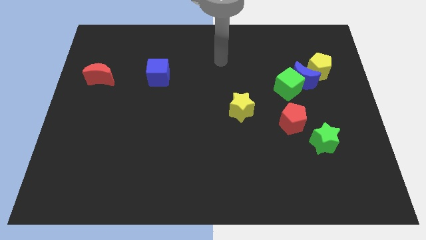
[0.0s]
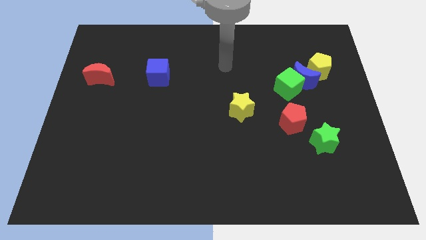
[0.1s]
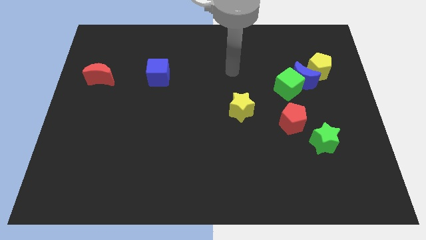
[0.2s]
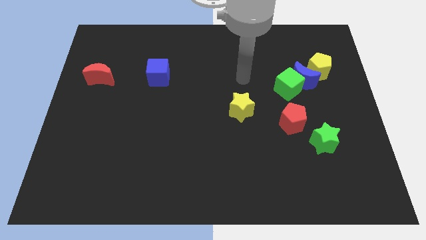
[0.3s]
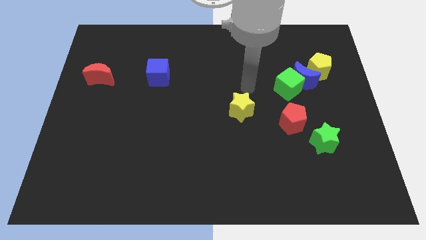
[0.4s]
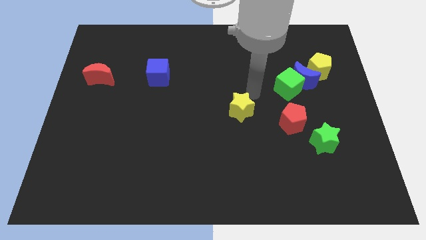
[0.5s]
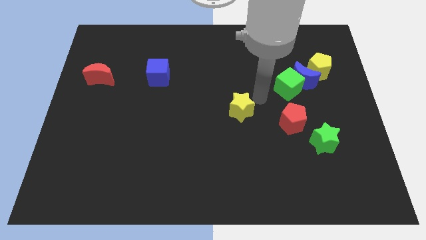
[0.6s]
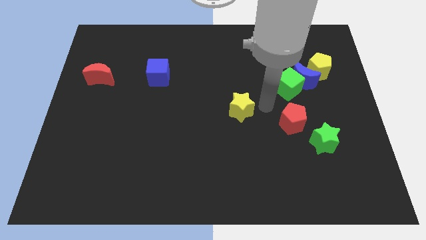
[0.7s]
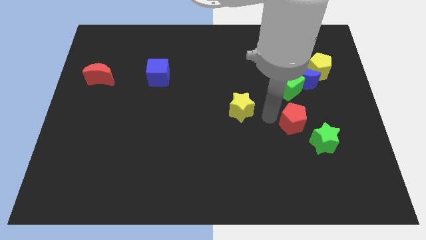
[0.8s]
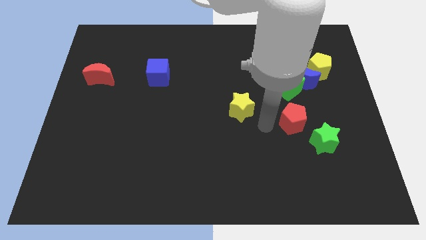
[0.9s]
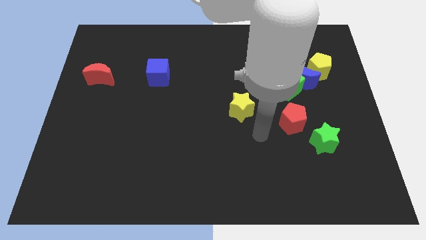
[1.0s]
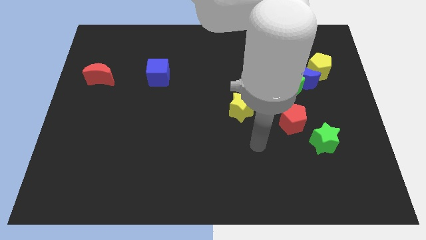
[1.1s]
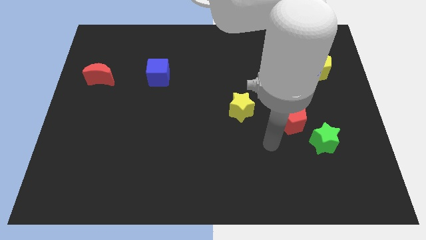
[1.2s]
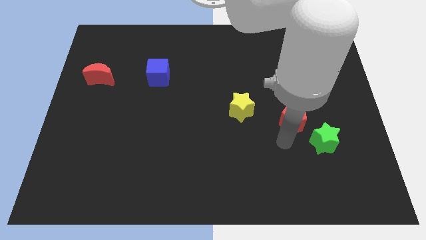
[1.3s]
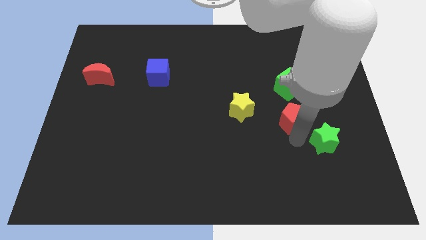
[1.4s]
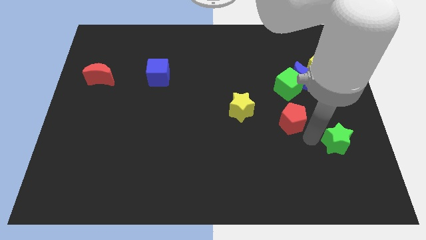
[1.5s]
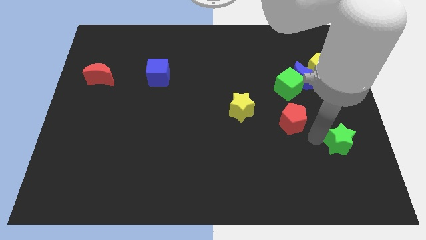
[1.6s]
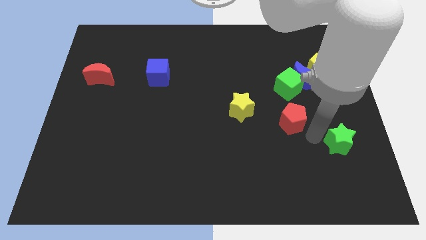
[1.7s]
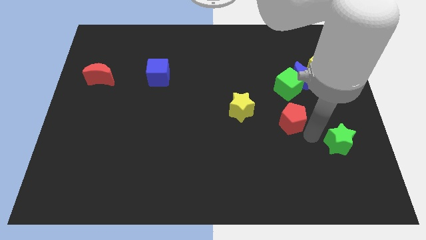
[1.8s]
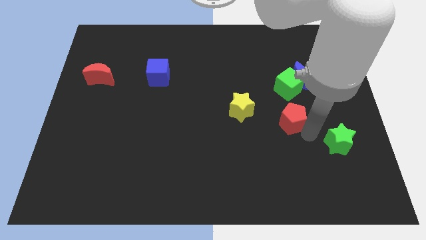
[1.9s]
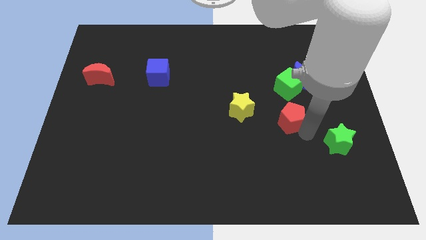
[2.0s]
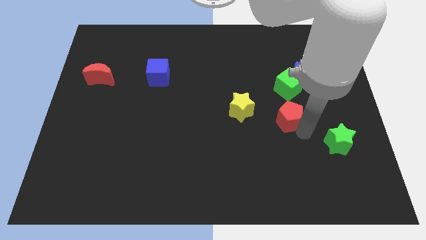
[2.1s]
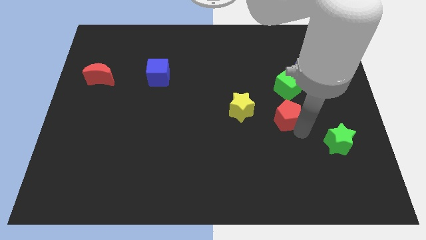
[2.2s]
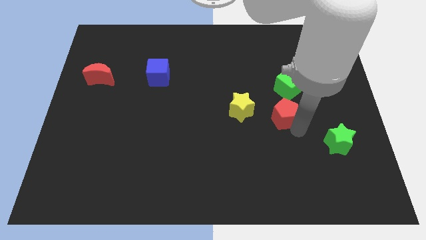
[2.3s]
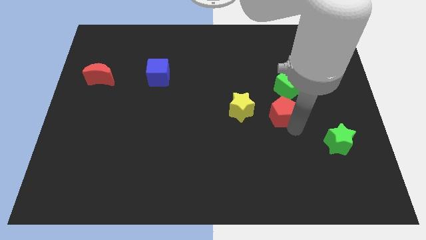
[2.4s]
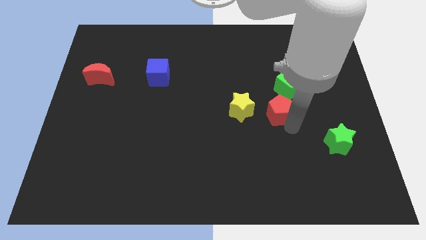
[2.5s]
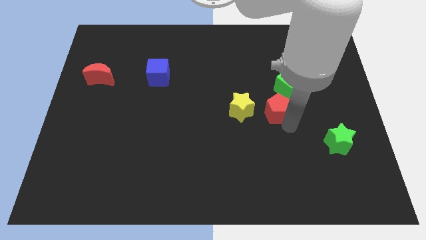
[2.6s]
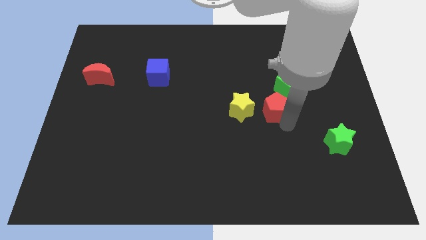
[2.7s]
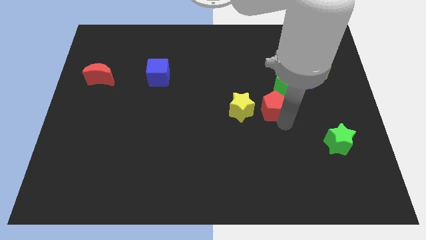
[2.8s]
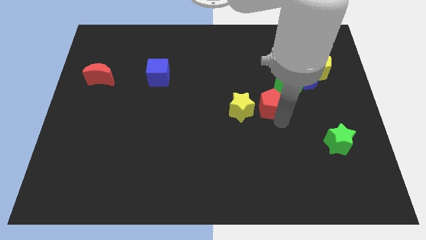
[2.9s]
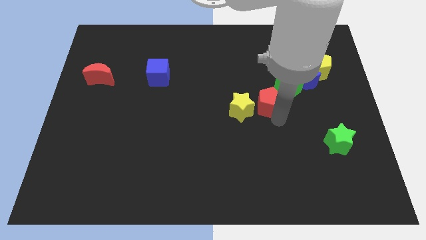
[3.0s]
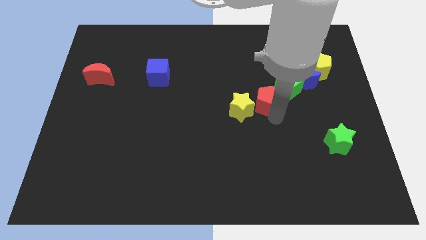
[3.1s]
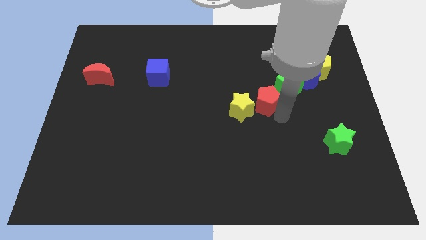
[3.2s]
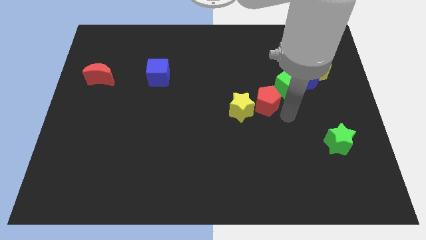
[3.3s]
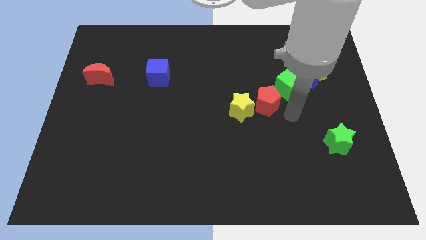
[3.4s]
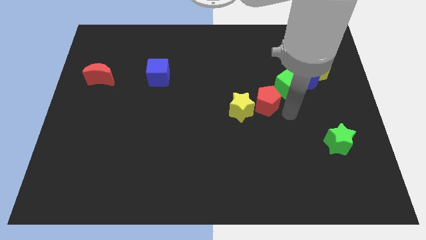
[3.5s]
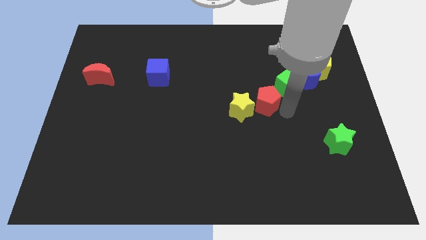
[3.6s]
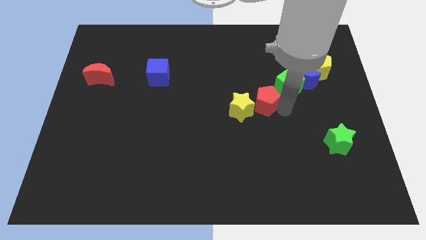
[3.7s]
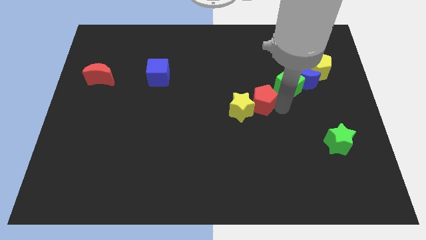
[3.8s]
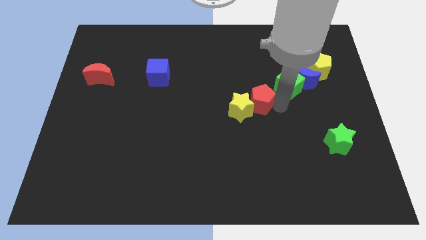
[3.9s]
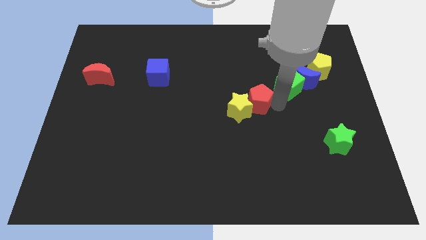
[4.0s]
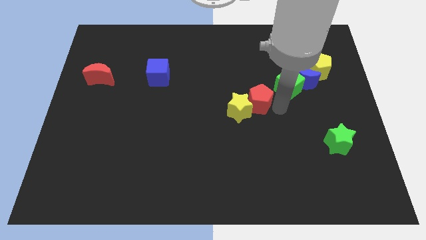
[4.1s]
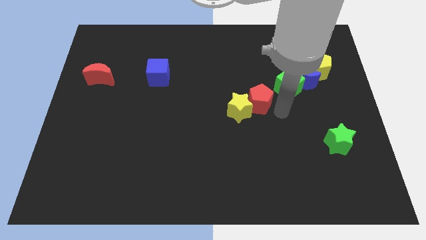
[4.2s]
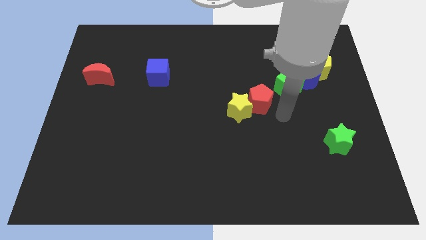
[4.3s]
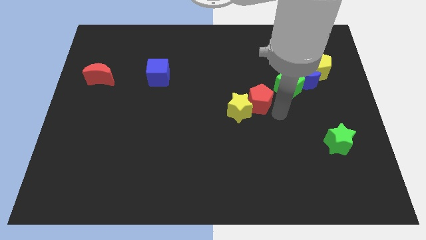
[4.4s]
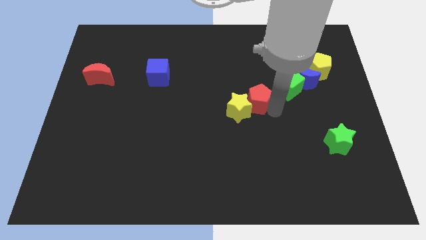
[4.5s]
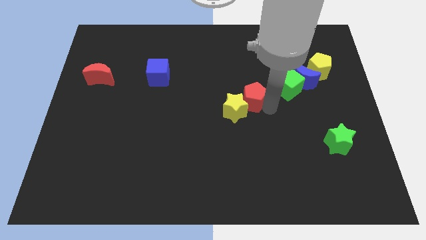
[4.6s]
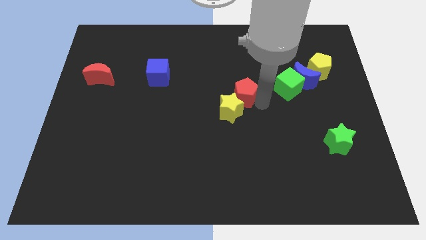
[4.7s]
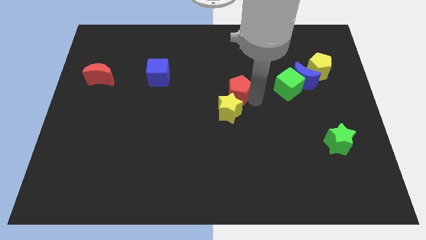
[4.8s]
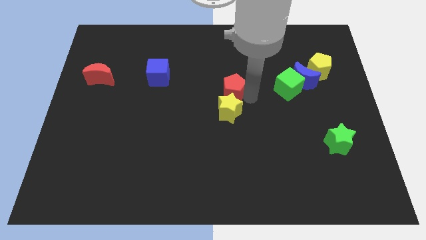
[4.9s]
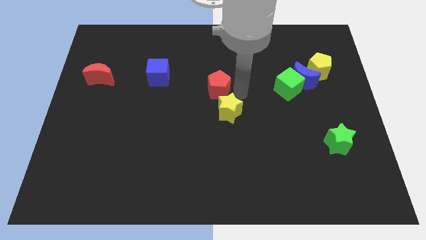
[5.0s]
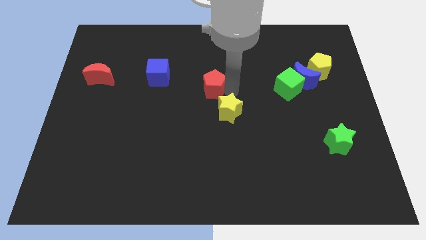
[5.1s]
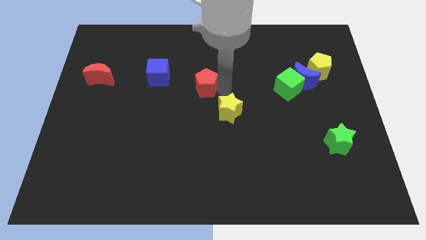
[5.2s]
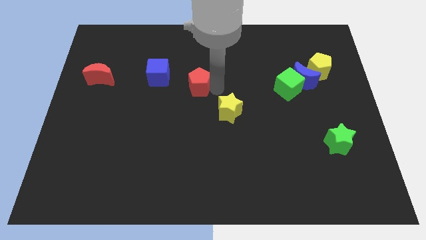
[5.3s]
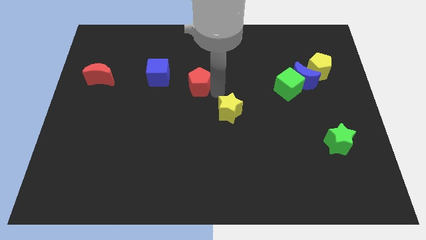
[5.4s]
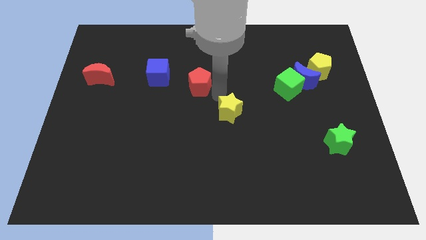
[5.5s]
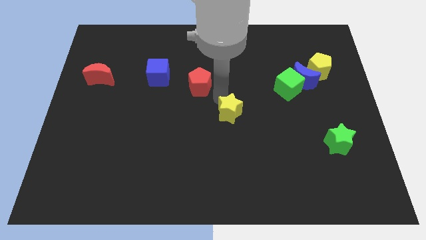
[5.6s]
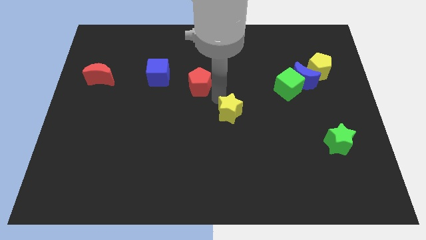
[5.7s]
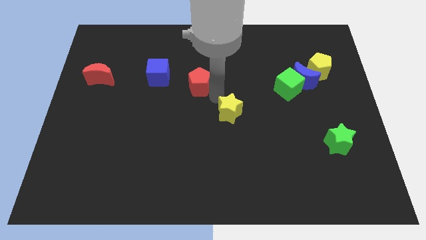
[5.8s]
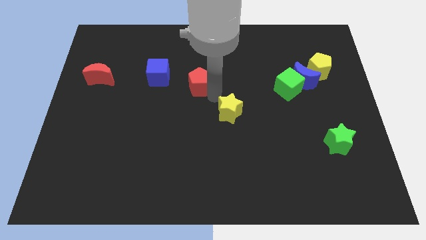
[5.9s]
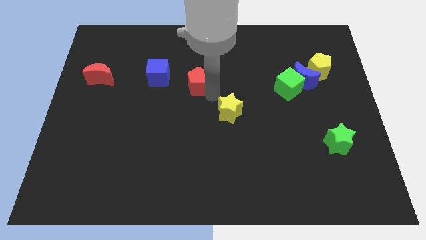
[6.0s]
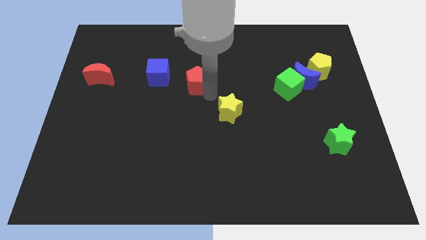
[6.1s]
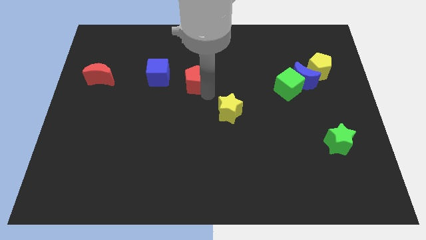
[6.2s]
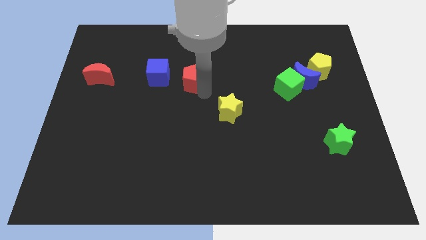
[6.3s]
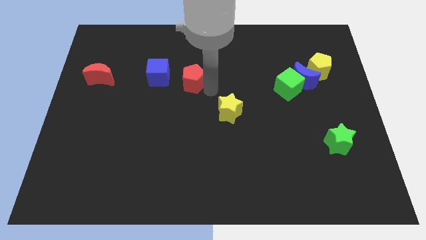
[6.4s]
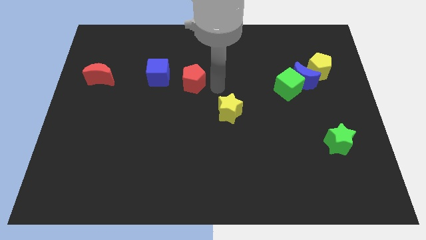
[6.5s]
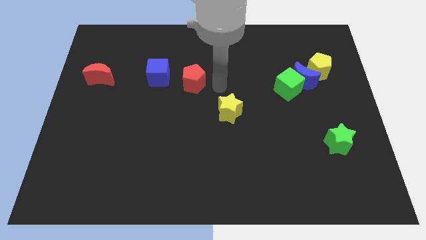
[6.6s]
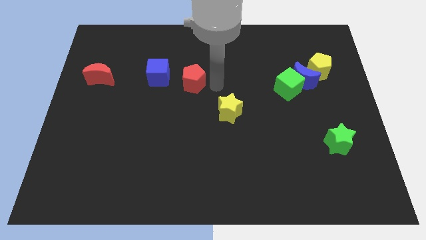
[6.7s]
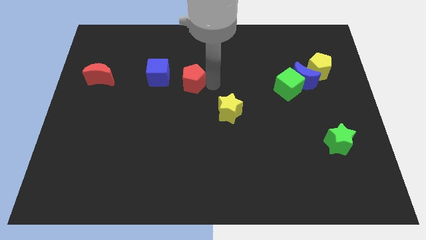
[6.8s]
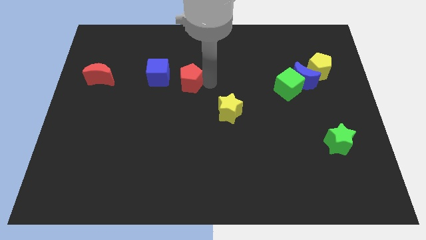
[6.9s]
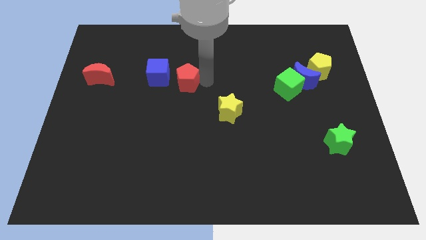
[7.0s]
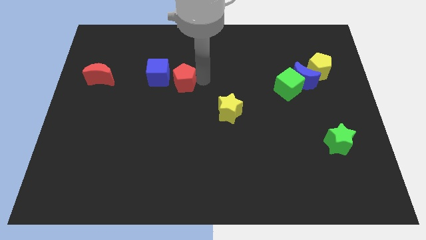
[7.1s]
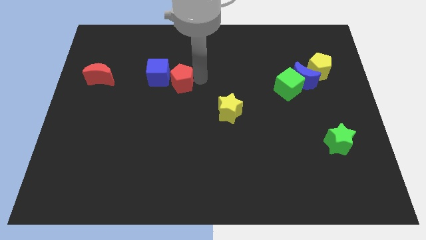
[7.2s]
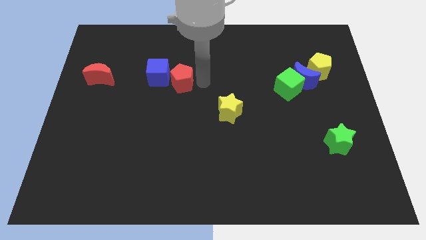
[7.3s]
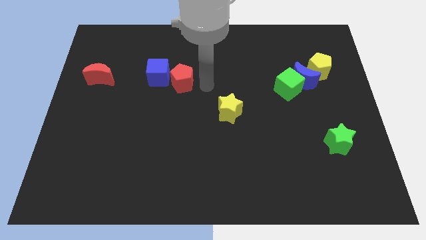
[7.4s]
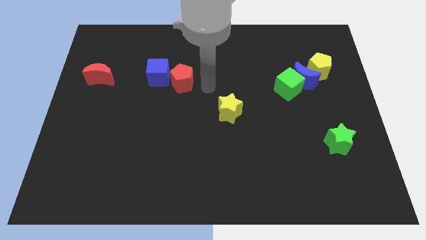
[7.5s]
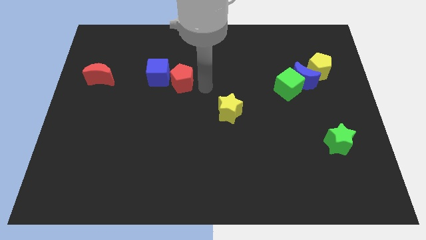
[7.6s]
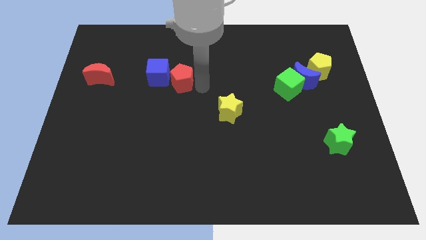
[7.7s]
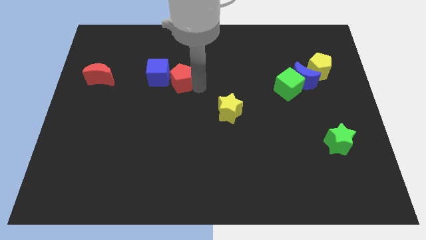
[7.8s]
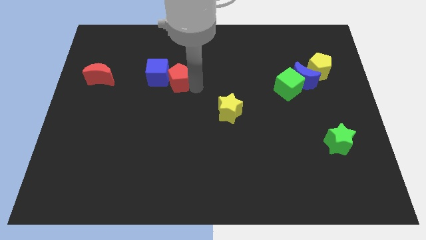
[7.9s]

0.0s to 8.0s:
put the red pentagon to the blue cube
